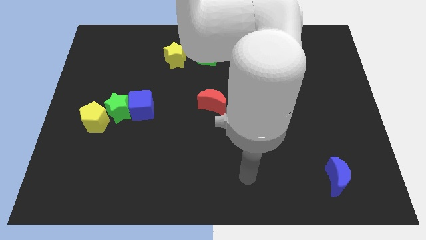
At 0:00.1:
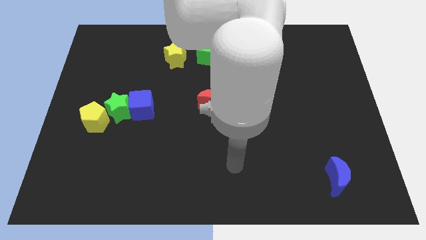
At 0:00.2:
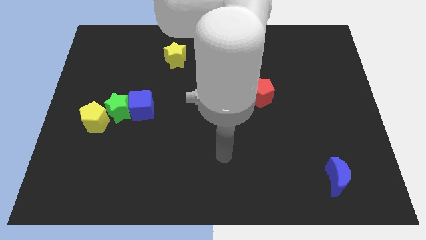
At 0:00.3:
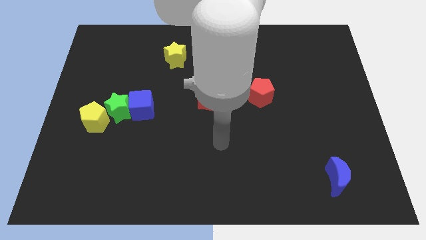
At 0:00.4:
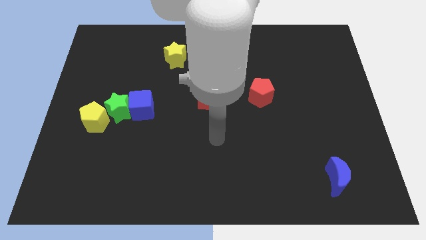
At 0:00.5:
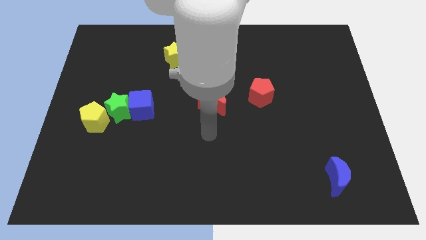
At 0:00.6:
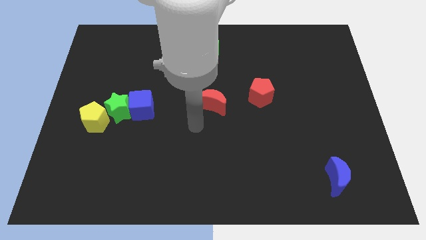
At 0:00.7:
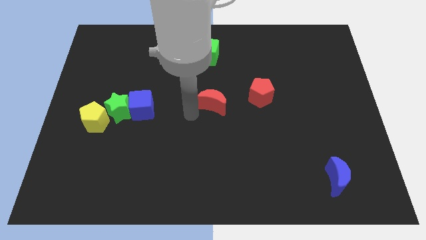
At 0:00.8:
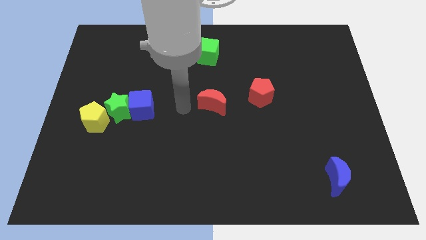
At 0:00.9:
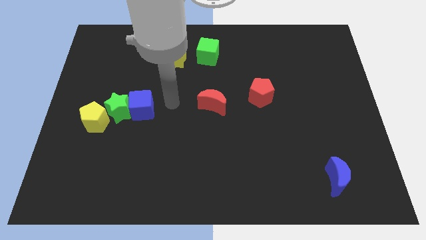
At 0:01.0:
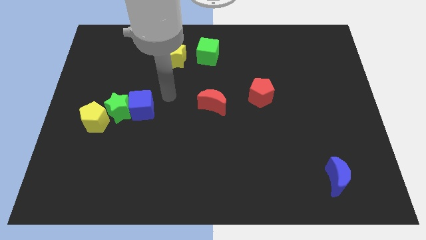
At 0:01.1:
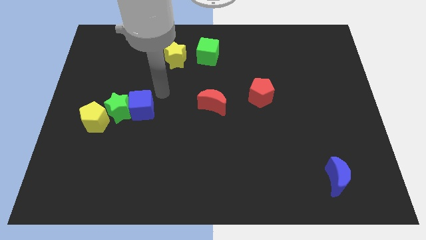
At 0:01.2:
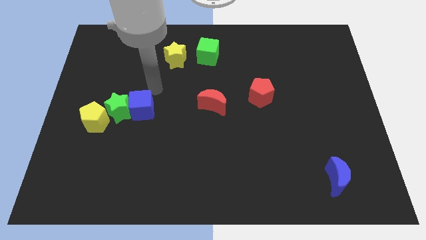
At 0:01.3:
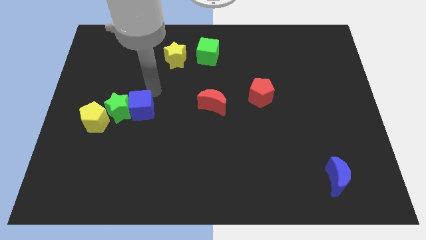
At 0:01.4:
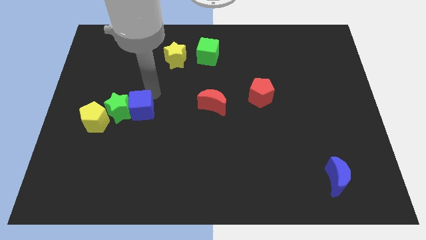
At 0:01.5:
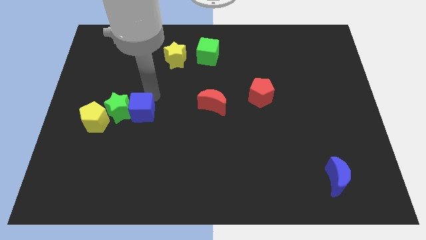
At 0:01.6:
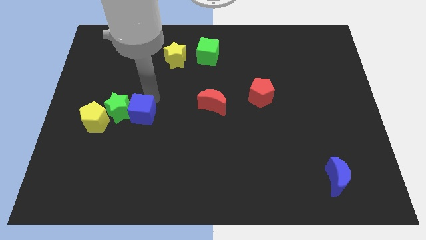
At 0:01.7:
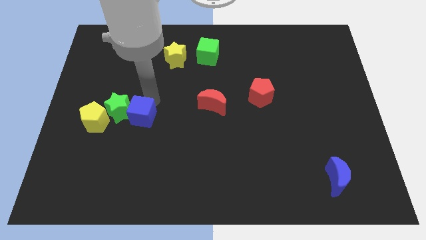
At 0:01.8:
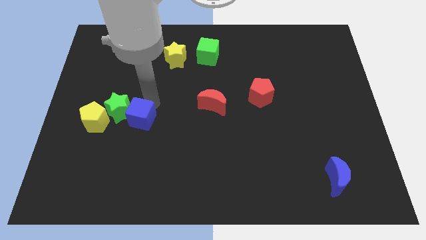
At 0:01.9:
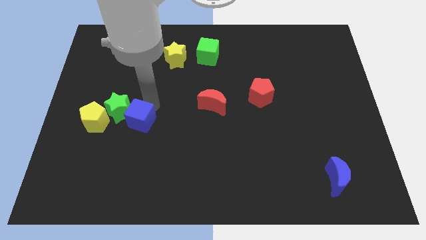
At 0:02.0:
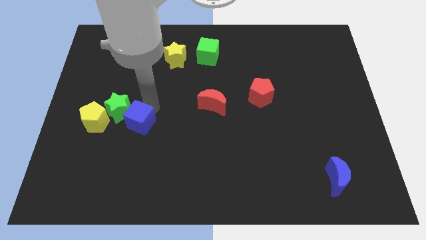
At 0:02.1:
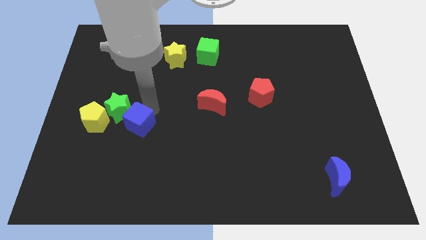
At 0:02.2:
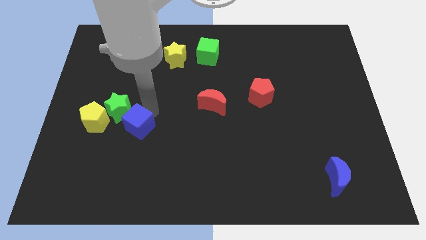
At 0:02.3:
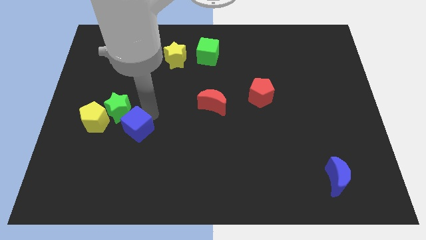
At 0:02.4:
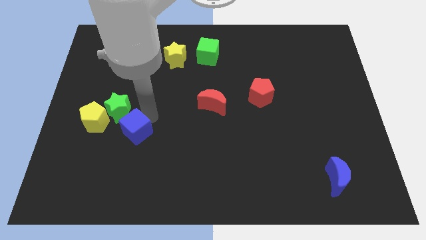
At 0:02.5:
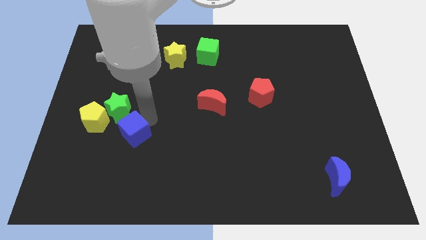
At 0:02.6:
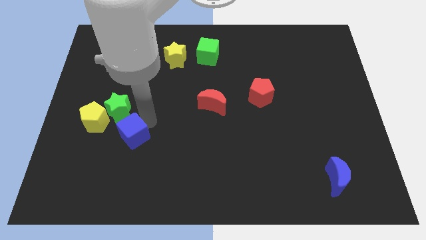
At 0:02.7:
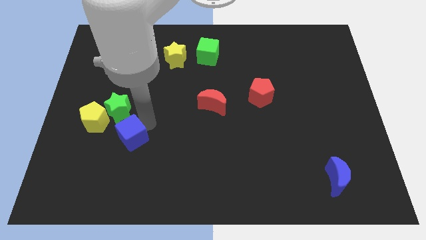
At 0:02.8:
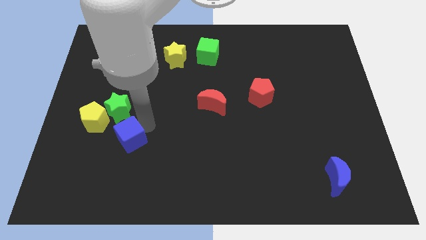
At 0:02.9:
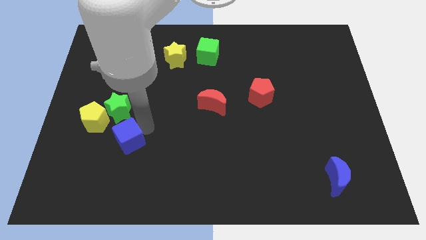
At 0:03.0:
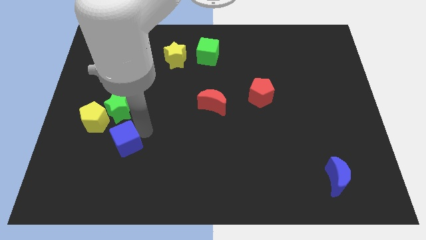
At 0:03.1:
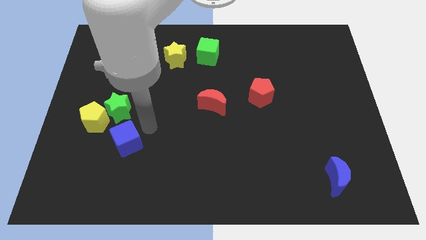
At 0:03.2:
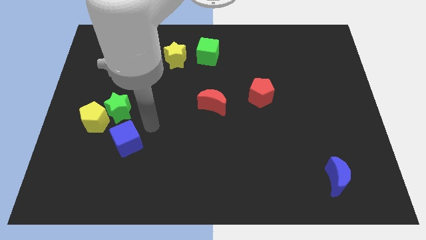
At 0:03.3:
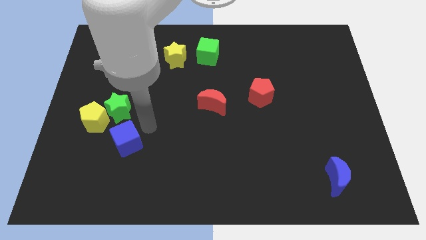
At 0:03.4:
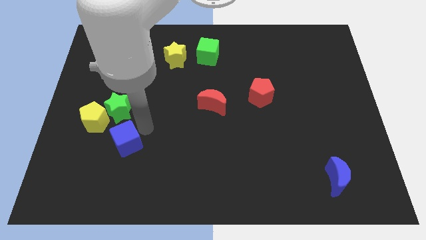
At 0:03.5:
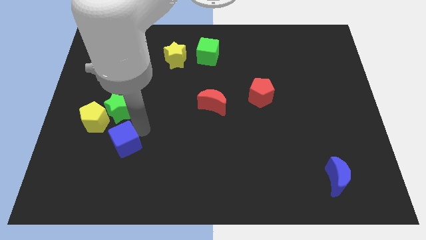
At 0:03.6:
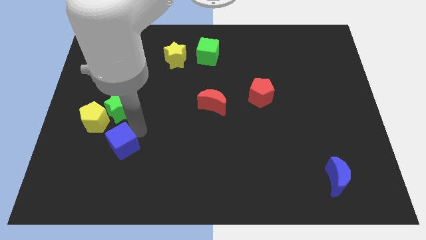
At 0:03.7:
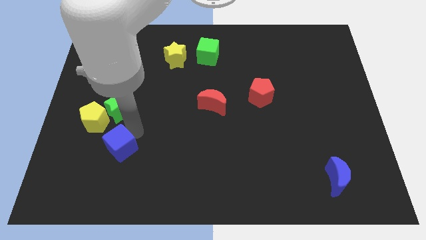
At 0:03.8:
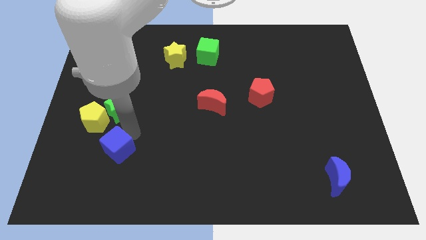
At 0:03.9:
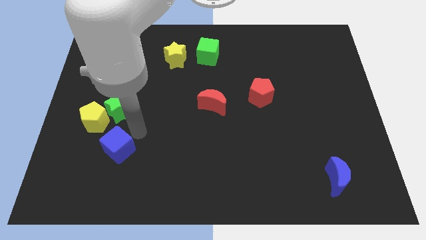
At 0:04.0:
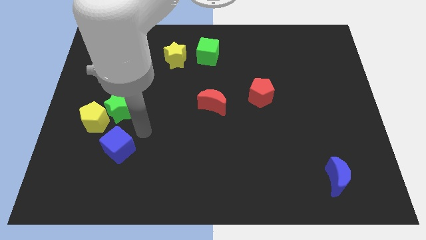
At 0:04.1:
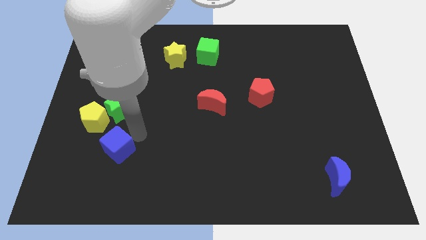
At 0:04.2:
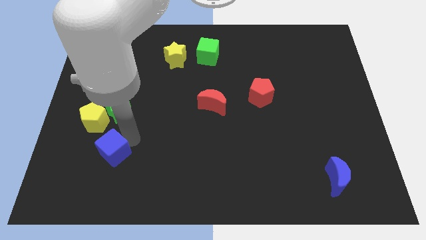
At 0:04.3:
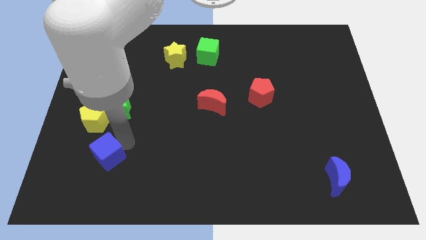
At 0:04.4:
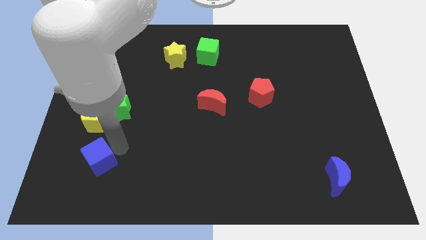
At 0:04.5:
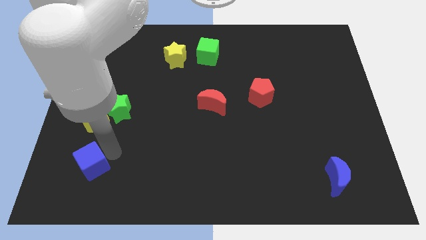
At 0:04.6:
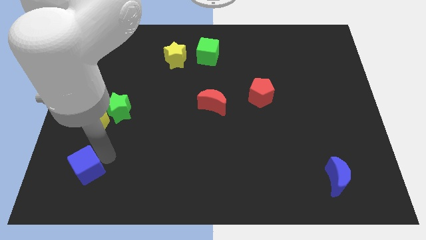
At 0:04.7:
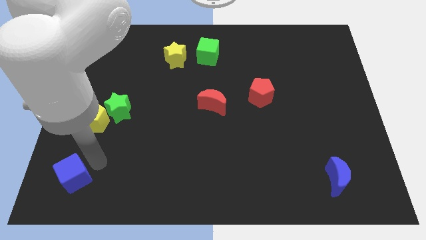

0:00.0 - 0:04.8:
push the blue cube to the lower left corner

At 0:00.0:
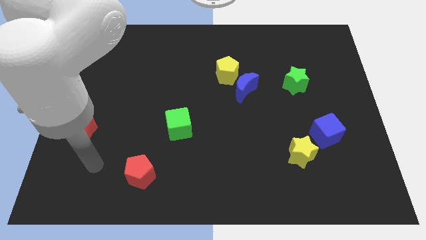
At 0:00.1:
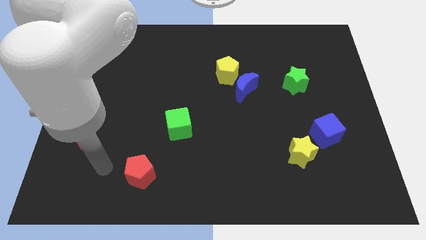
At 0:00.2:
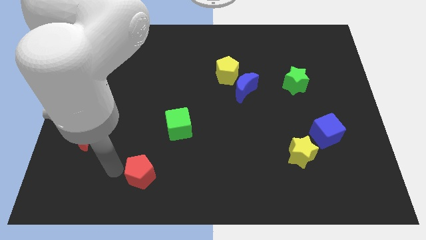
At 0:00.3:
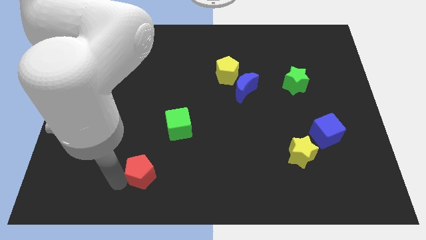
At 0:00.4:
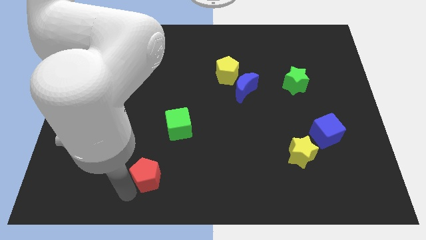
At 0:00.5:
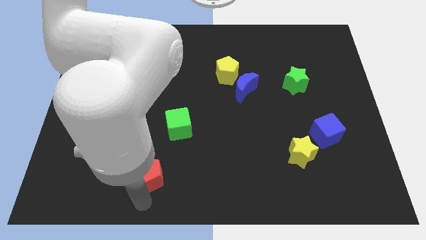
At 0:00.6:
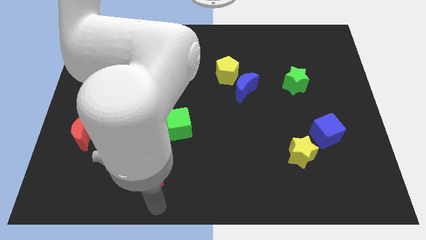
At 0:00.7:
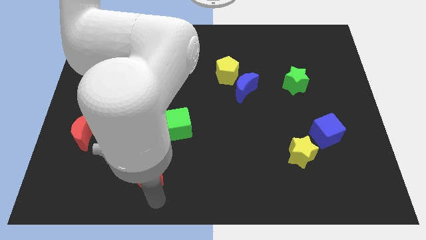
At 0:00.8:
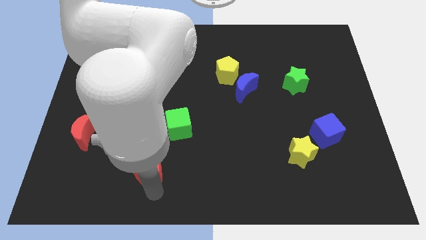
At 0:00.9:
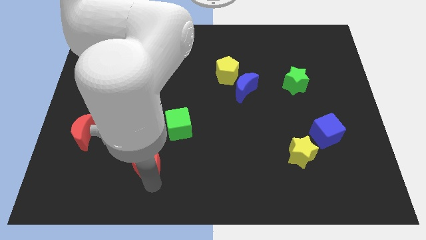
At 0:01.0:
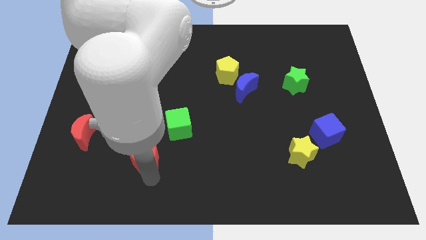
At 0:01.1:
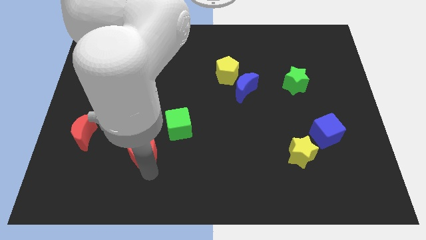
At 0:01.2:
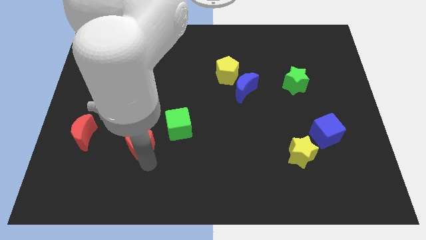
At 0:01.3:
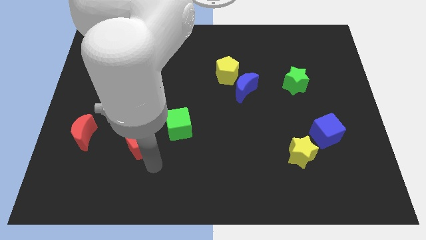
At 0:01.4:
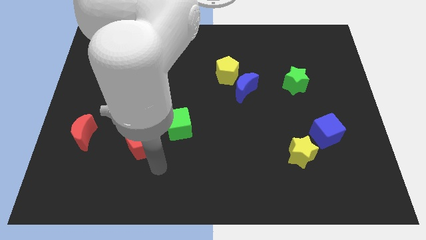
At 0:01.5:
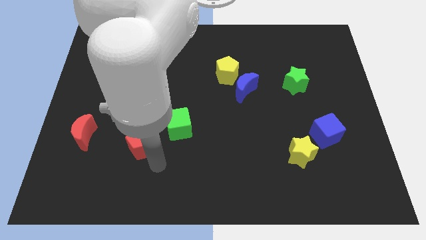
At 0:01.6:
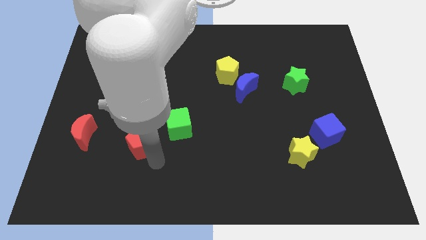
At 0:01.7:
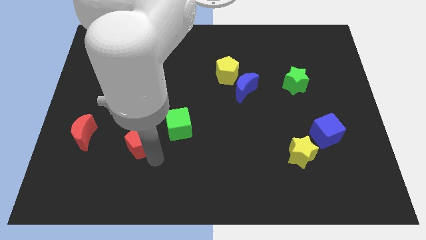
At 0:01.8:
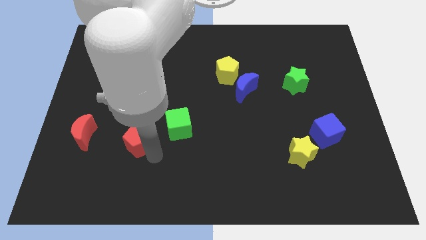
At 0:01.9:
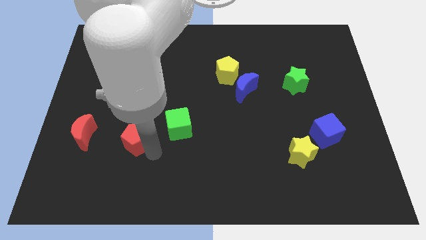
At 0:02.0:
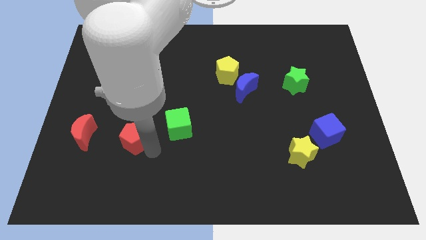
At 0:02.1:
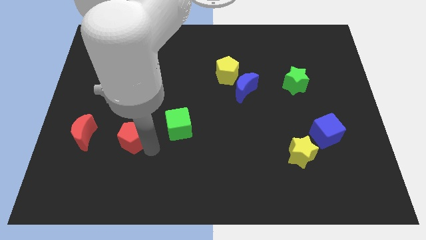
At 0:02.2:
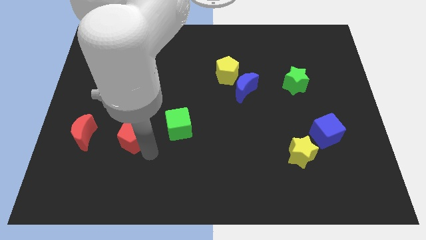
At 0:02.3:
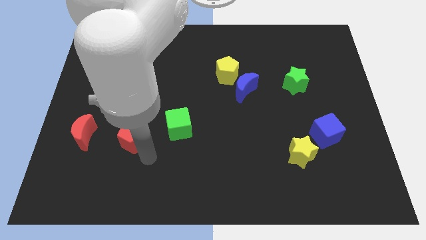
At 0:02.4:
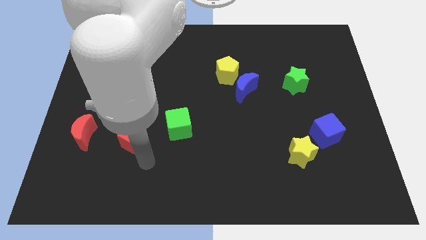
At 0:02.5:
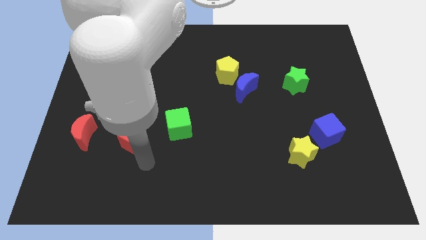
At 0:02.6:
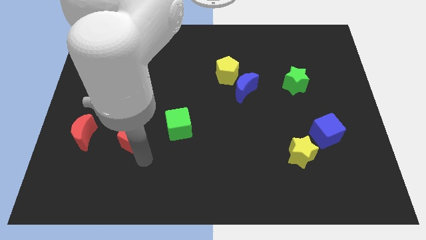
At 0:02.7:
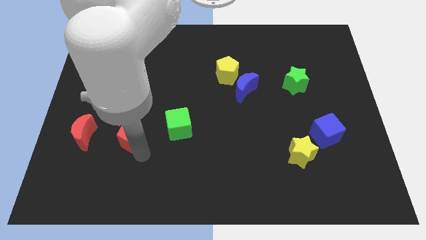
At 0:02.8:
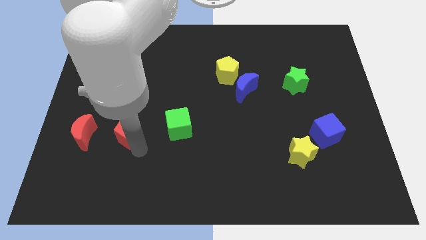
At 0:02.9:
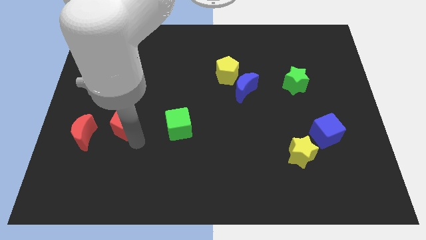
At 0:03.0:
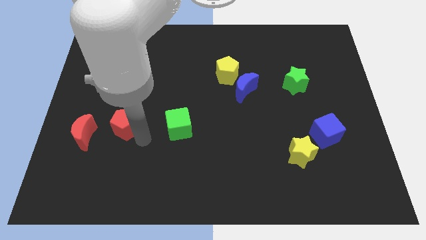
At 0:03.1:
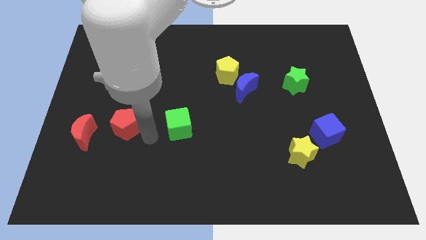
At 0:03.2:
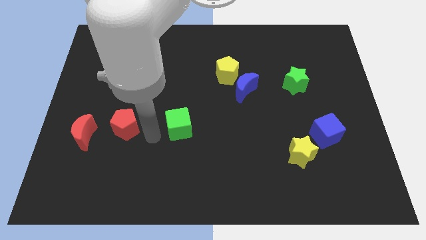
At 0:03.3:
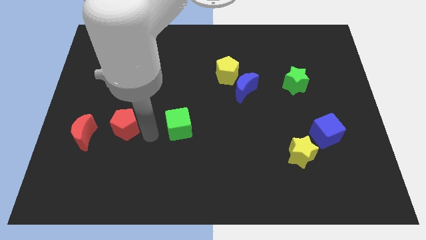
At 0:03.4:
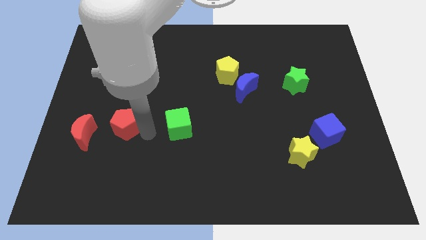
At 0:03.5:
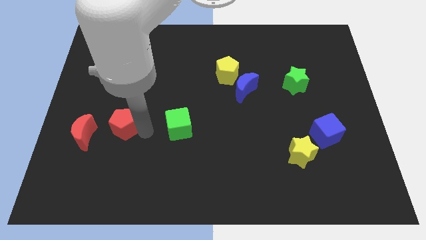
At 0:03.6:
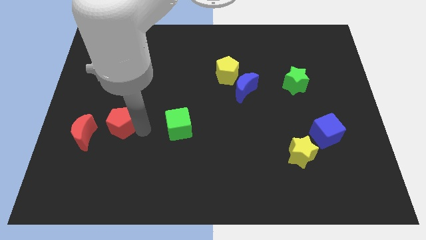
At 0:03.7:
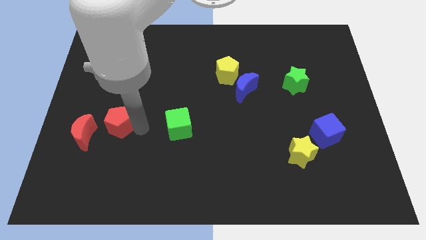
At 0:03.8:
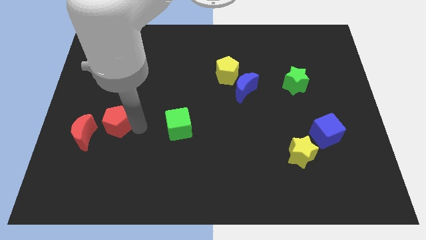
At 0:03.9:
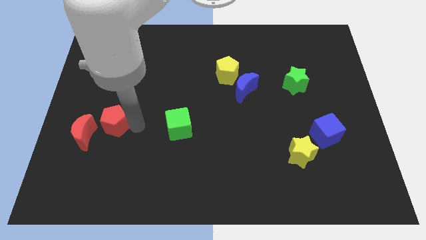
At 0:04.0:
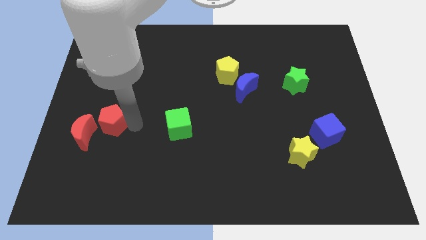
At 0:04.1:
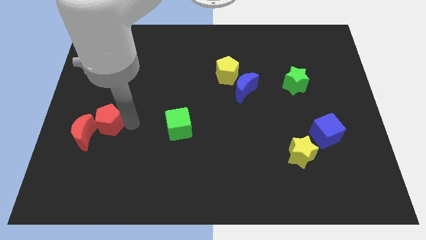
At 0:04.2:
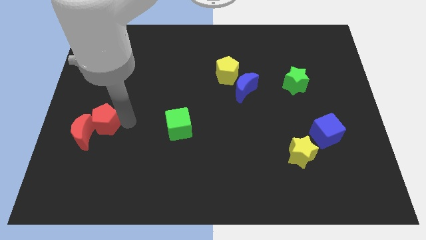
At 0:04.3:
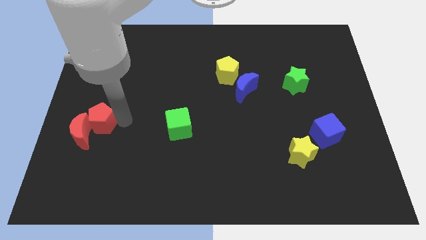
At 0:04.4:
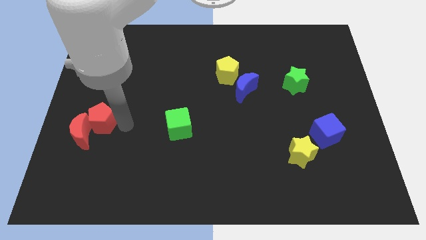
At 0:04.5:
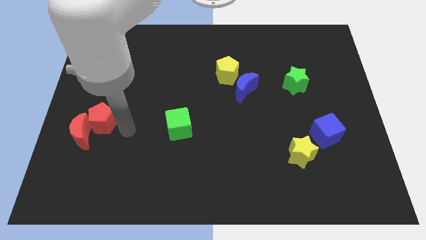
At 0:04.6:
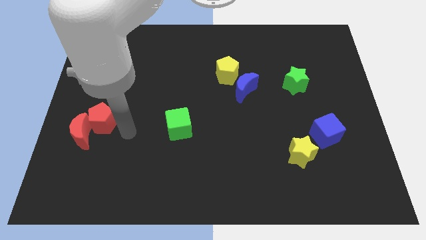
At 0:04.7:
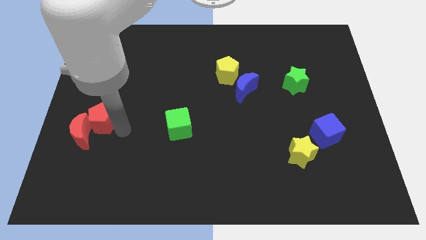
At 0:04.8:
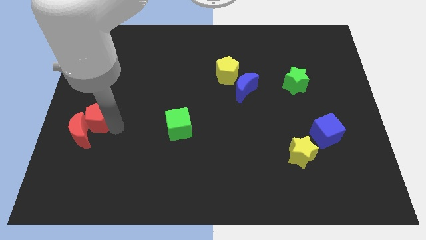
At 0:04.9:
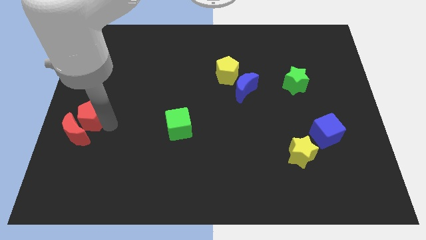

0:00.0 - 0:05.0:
push the red pentagon to the left side of the board
